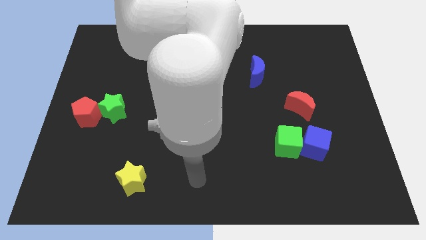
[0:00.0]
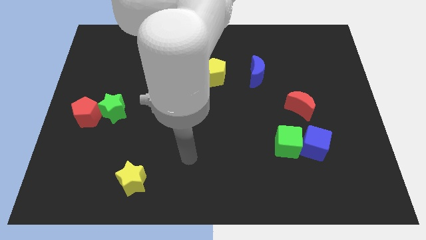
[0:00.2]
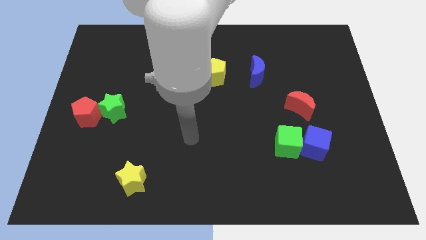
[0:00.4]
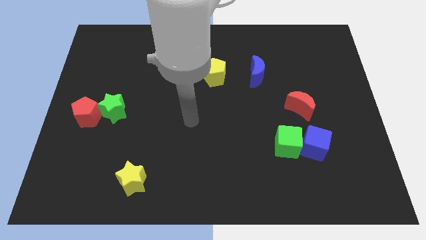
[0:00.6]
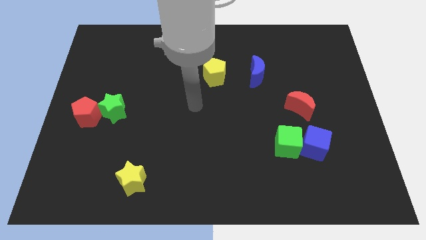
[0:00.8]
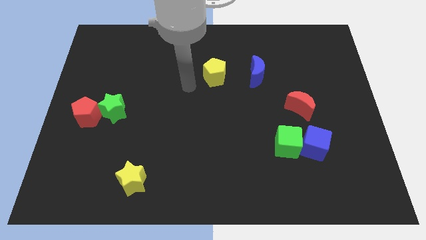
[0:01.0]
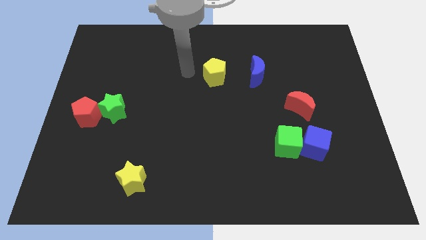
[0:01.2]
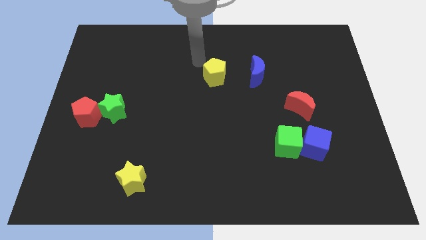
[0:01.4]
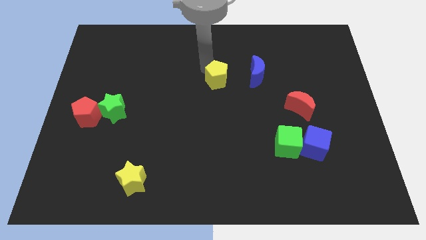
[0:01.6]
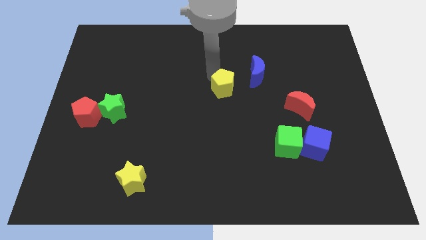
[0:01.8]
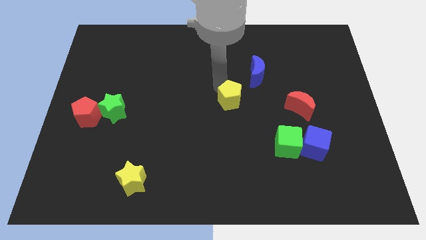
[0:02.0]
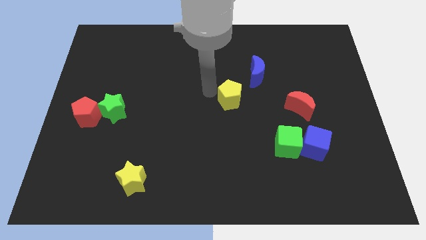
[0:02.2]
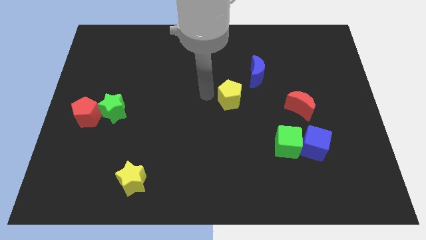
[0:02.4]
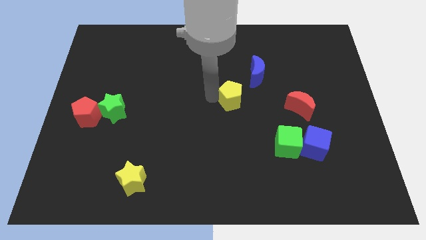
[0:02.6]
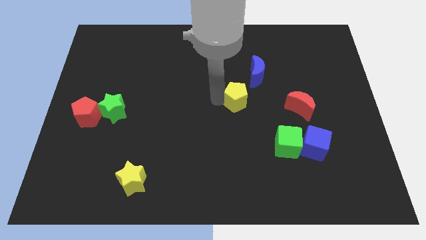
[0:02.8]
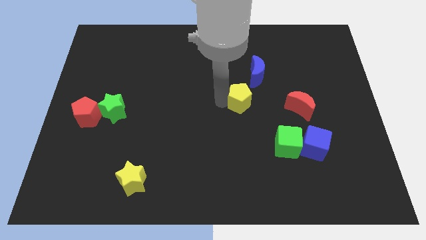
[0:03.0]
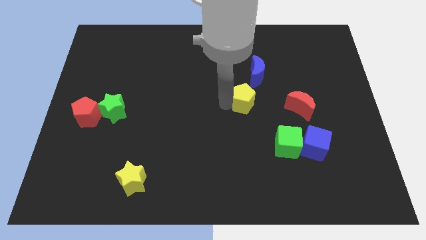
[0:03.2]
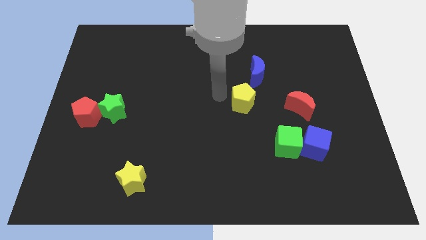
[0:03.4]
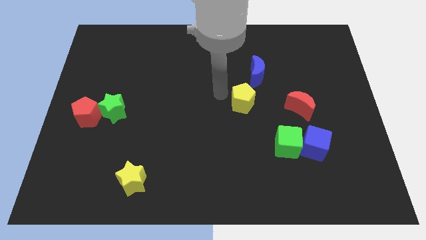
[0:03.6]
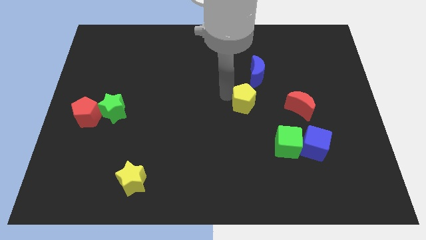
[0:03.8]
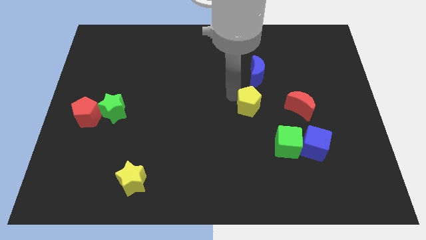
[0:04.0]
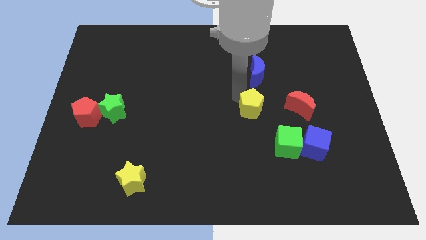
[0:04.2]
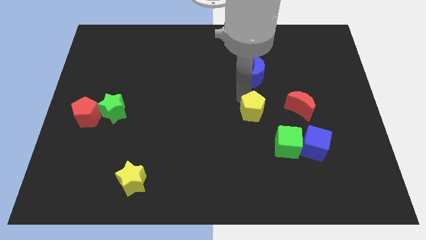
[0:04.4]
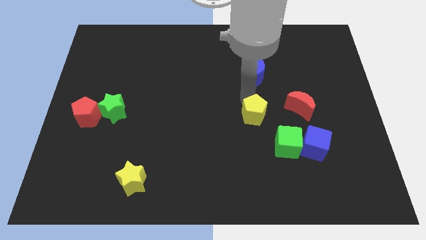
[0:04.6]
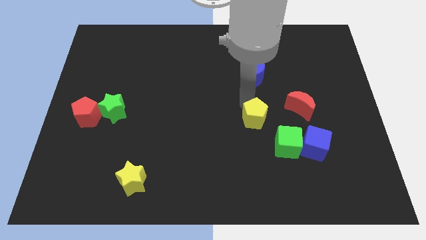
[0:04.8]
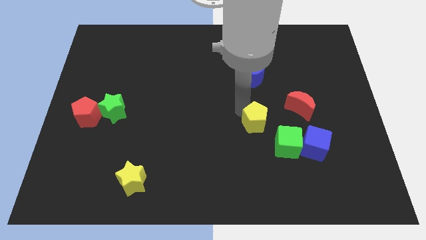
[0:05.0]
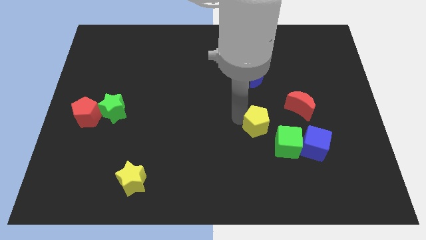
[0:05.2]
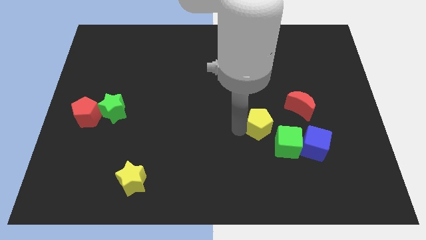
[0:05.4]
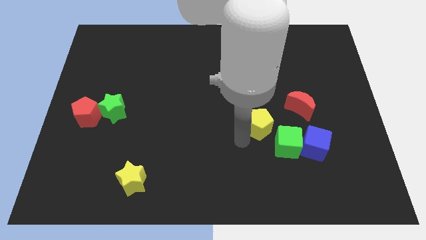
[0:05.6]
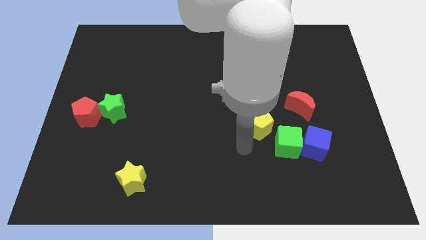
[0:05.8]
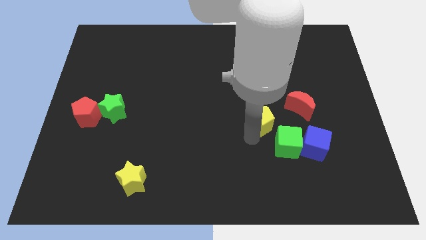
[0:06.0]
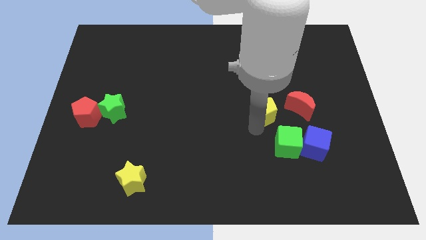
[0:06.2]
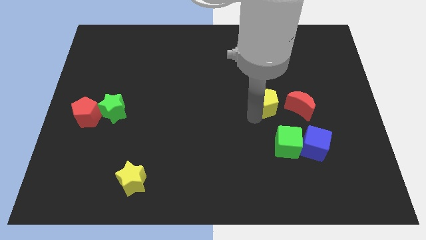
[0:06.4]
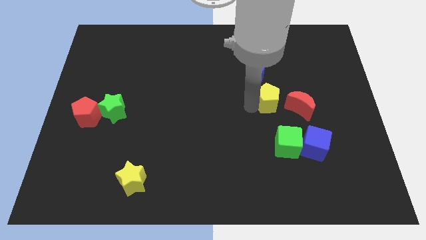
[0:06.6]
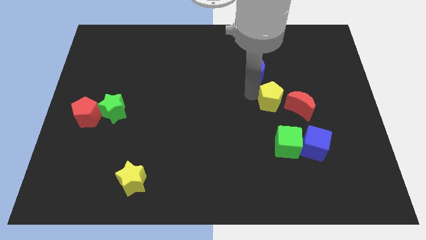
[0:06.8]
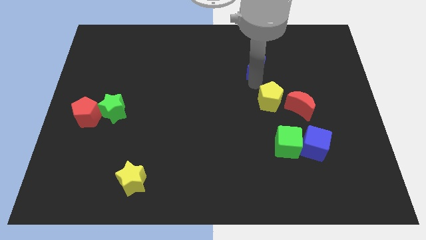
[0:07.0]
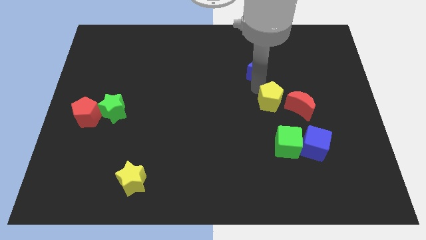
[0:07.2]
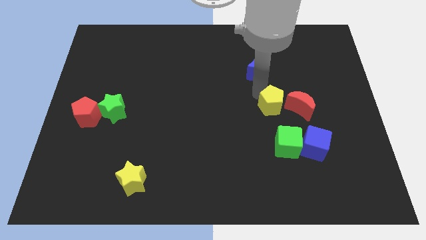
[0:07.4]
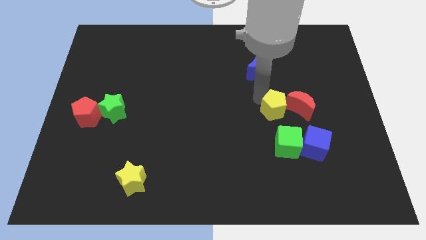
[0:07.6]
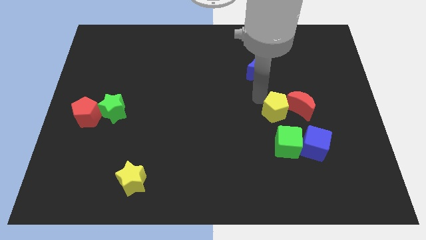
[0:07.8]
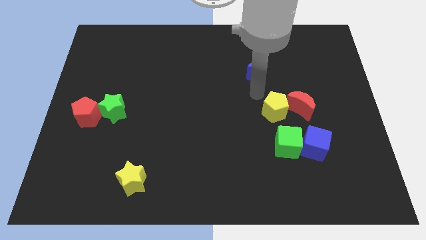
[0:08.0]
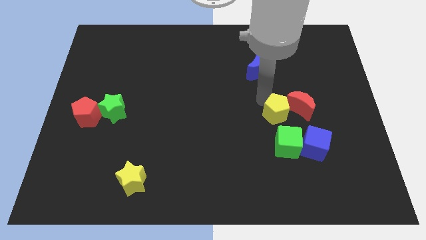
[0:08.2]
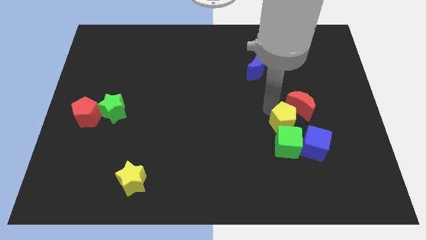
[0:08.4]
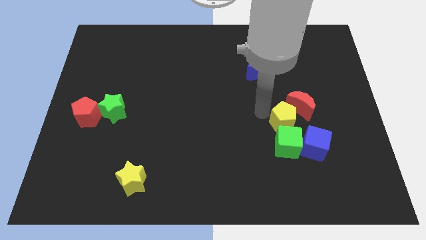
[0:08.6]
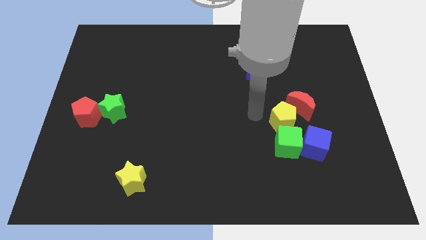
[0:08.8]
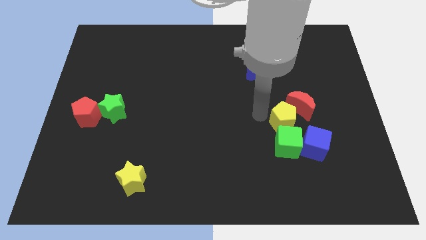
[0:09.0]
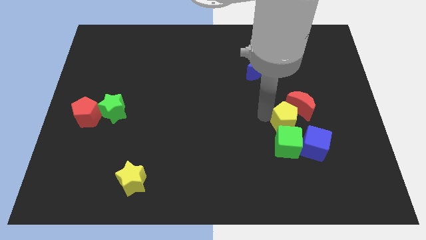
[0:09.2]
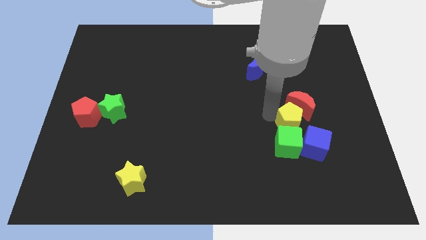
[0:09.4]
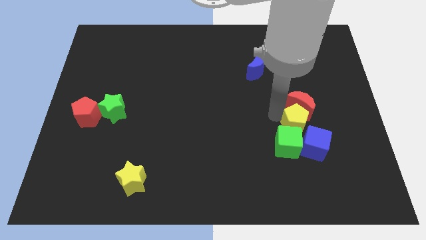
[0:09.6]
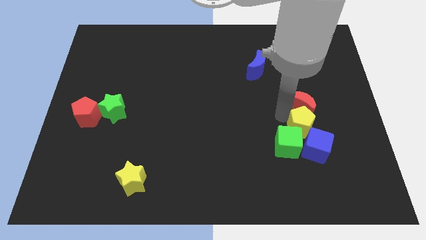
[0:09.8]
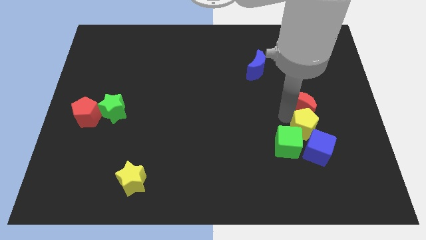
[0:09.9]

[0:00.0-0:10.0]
push the yellow pentagon to the right of the green cube

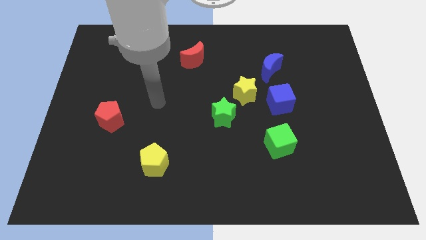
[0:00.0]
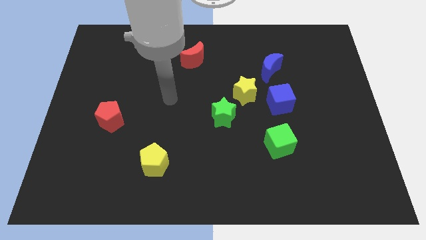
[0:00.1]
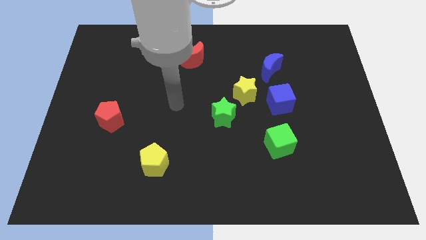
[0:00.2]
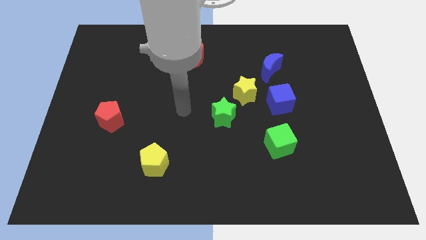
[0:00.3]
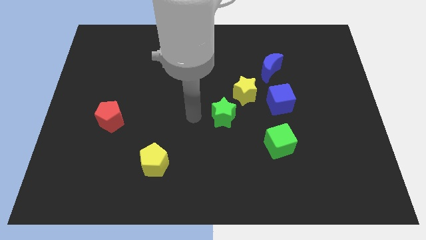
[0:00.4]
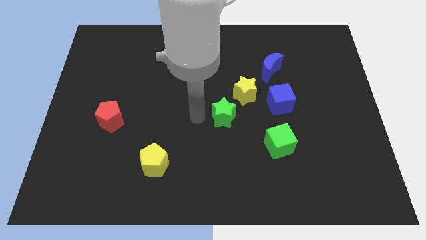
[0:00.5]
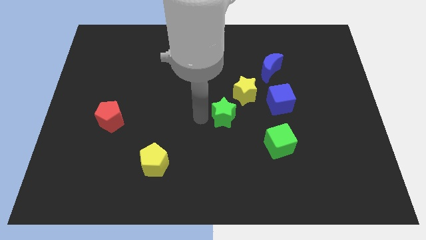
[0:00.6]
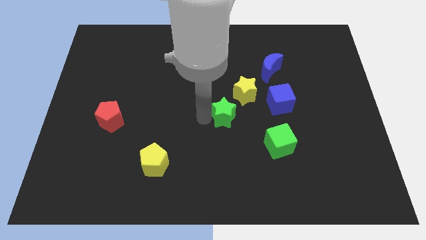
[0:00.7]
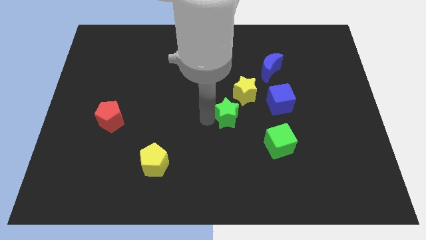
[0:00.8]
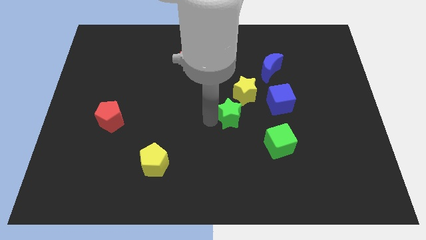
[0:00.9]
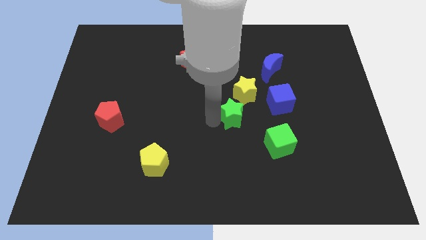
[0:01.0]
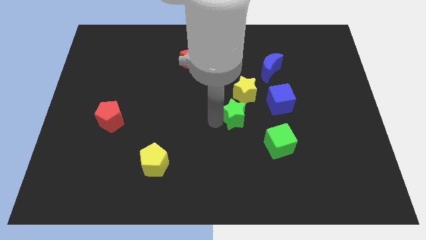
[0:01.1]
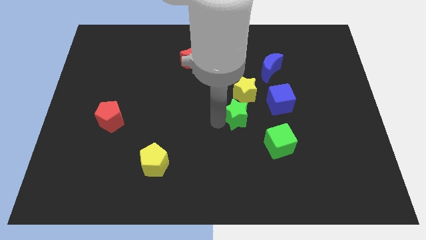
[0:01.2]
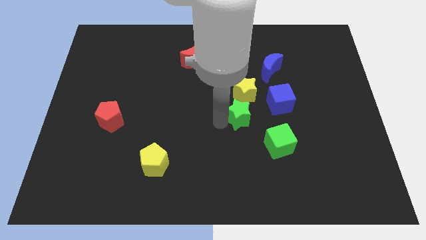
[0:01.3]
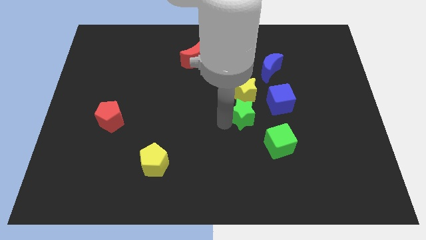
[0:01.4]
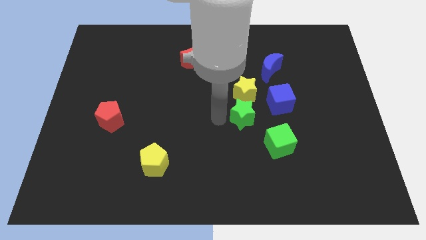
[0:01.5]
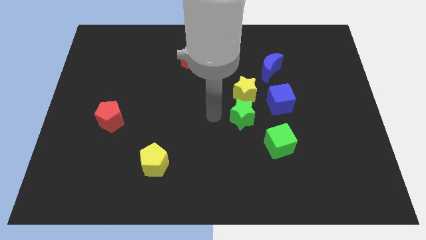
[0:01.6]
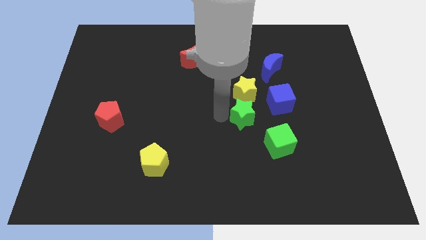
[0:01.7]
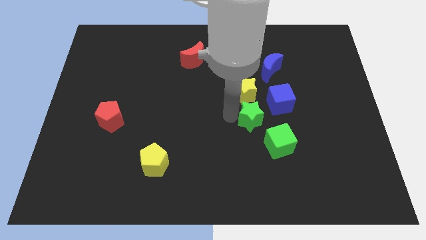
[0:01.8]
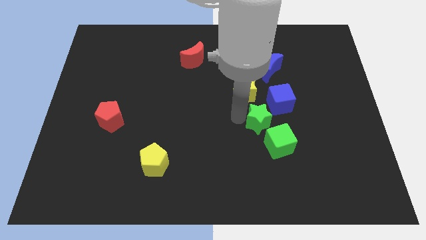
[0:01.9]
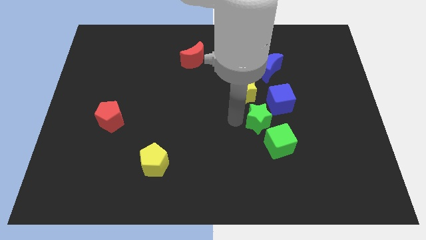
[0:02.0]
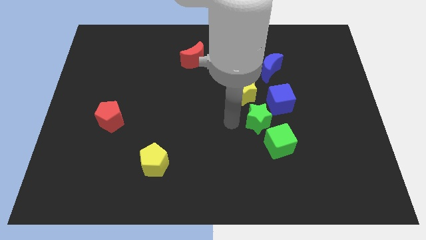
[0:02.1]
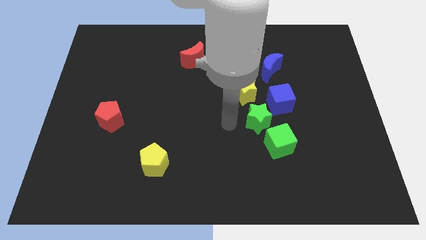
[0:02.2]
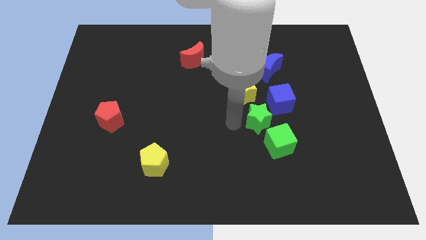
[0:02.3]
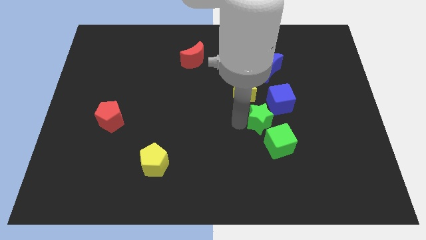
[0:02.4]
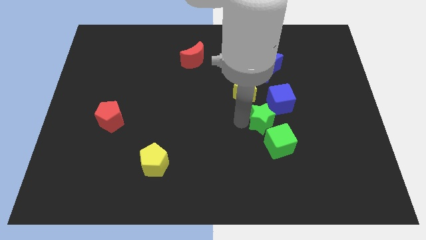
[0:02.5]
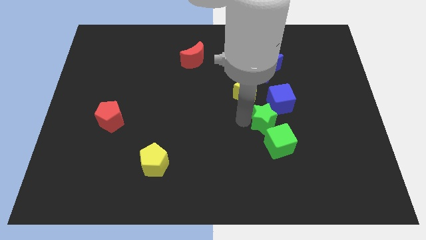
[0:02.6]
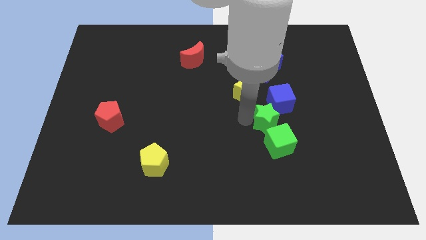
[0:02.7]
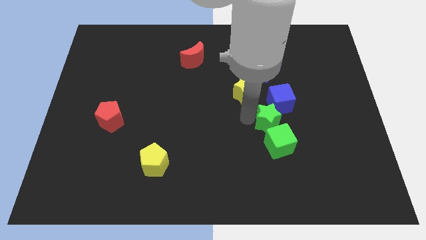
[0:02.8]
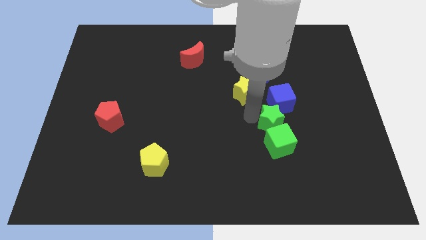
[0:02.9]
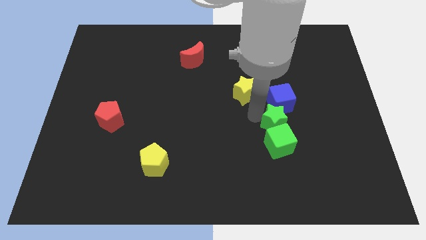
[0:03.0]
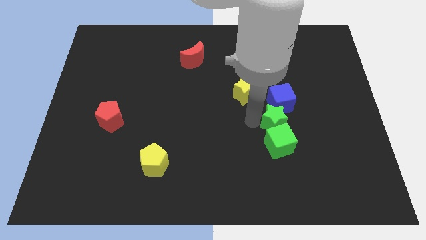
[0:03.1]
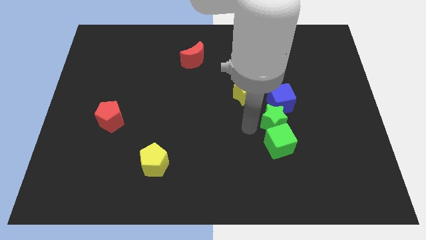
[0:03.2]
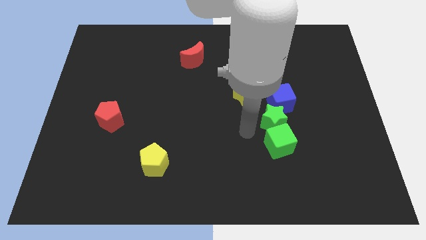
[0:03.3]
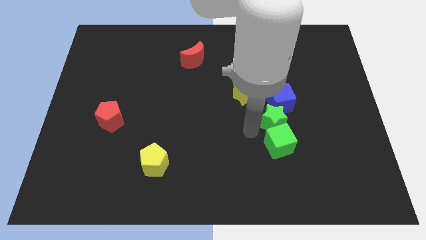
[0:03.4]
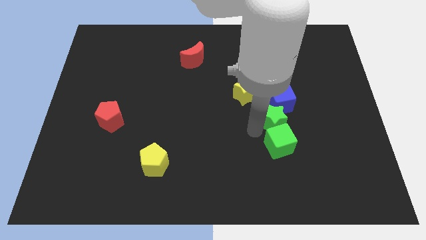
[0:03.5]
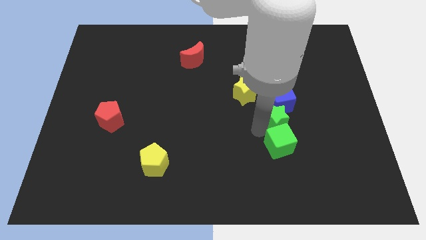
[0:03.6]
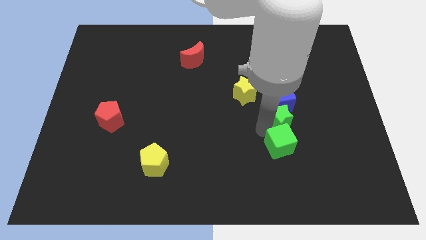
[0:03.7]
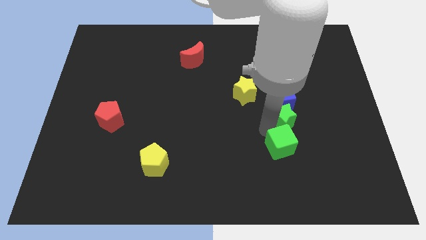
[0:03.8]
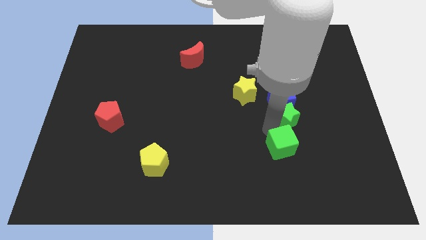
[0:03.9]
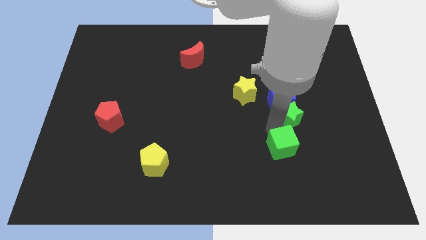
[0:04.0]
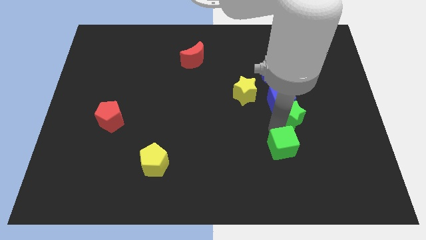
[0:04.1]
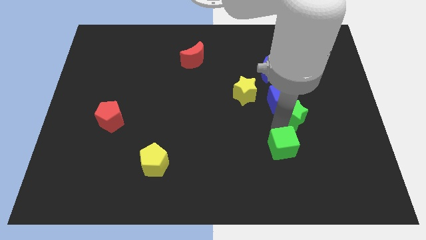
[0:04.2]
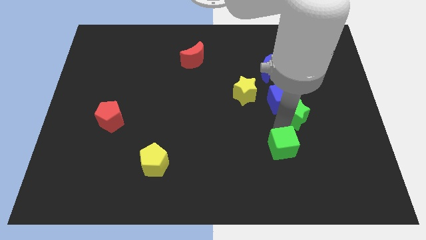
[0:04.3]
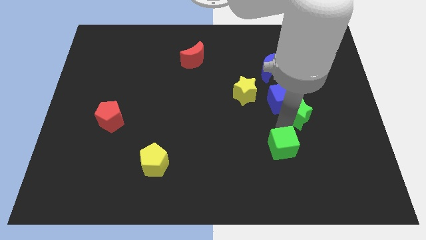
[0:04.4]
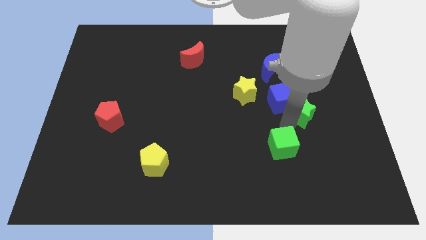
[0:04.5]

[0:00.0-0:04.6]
put the green star to the right side of the blue cube
